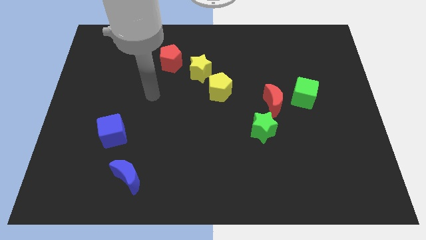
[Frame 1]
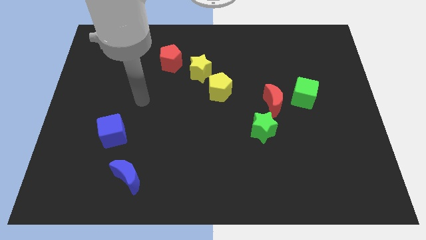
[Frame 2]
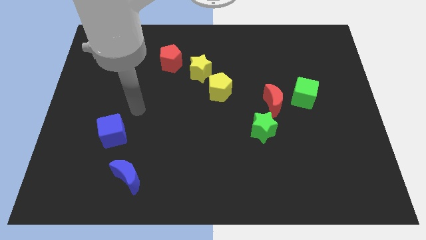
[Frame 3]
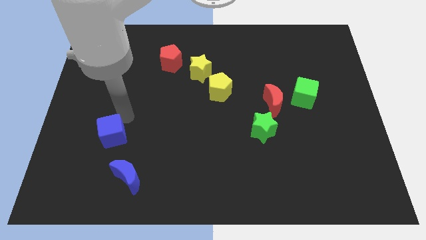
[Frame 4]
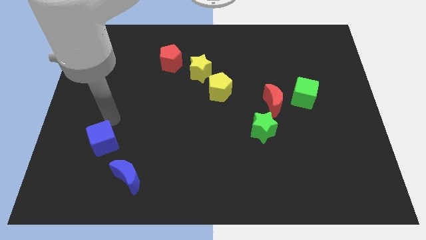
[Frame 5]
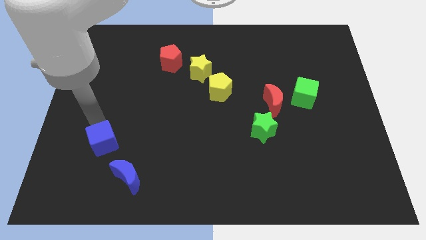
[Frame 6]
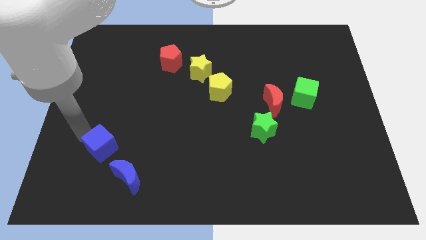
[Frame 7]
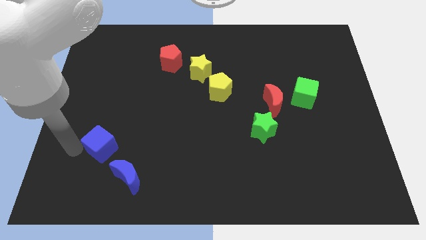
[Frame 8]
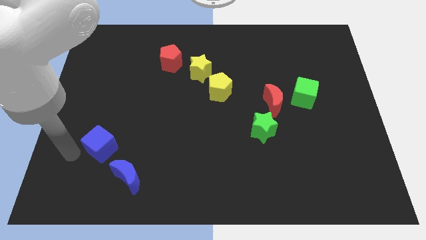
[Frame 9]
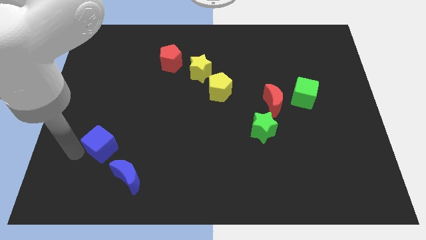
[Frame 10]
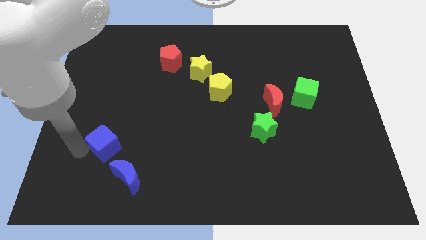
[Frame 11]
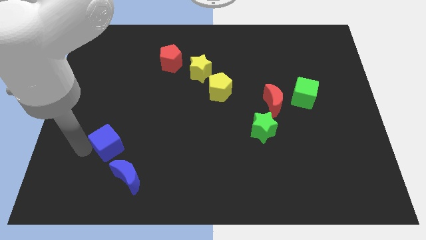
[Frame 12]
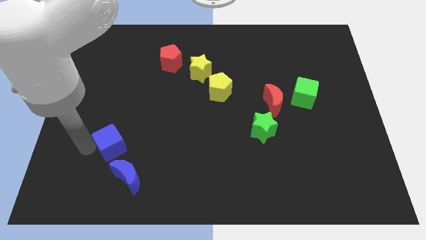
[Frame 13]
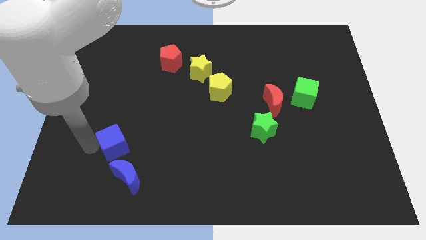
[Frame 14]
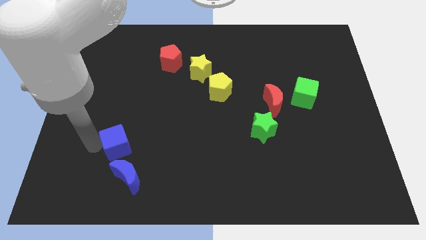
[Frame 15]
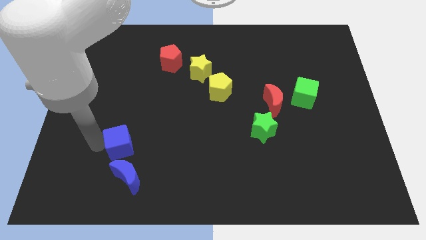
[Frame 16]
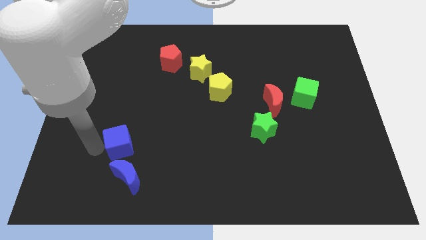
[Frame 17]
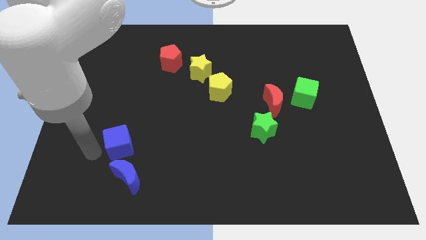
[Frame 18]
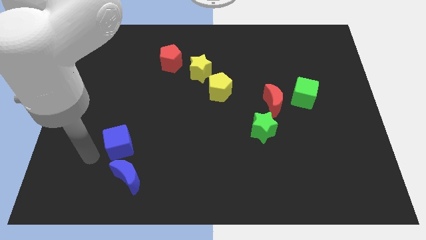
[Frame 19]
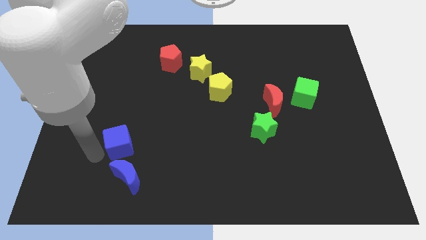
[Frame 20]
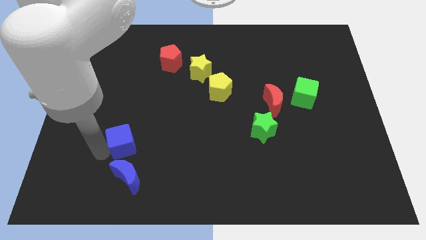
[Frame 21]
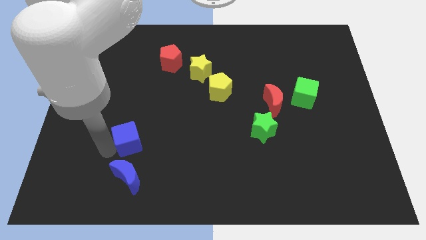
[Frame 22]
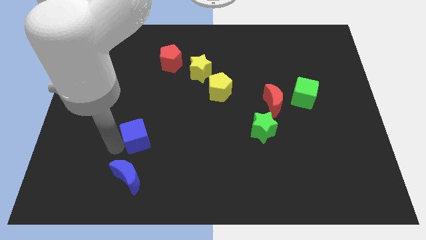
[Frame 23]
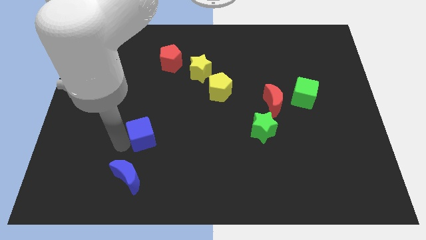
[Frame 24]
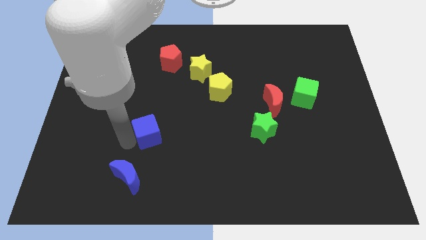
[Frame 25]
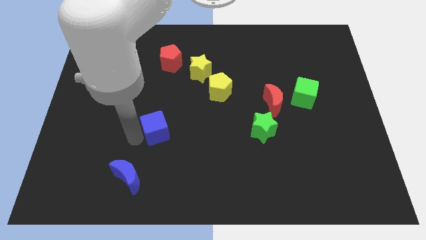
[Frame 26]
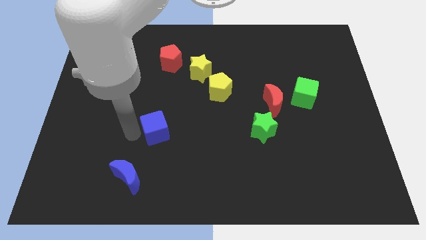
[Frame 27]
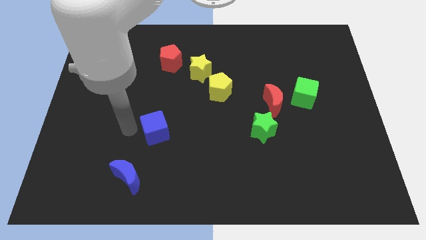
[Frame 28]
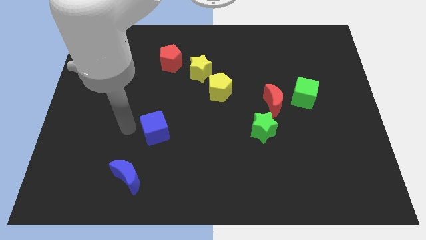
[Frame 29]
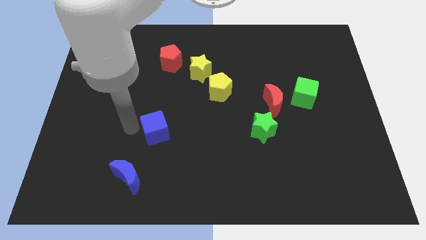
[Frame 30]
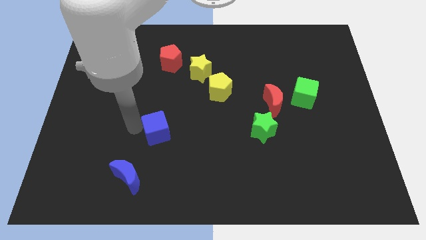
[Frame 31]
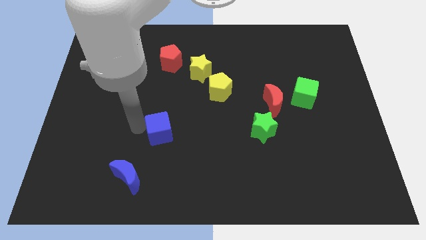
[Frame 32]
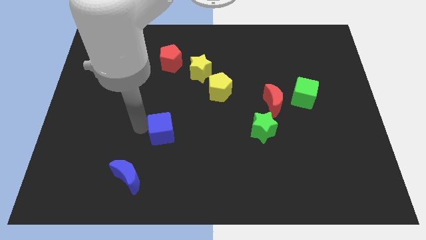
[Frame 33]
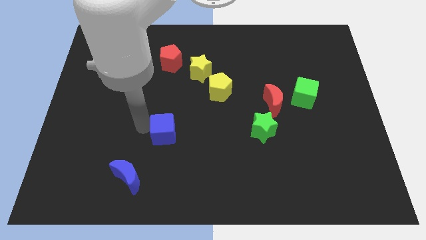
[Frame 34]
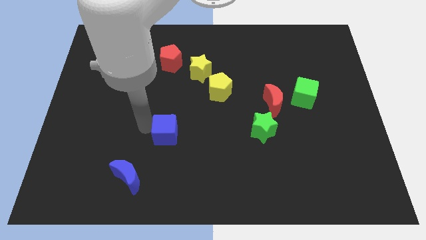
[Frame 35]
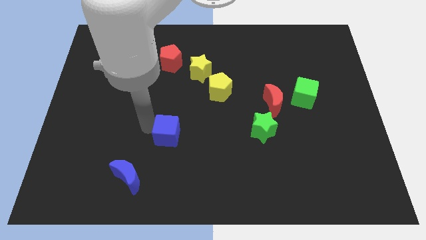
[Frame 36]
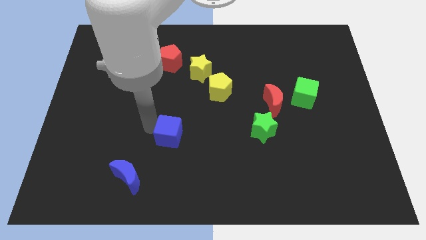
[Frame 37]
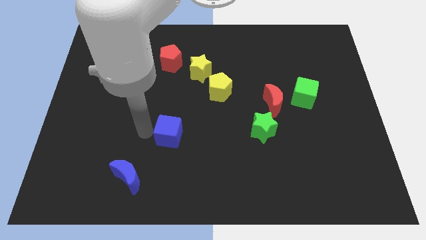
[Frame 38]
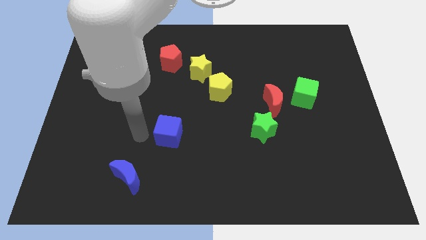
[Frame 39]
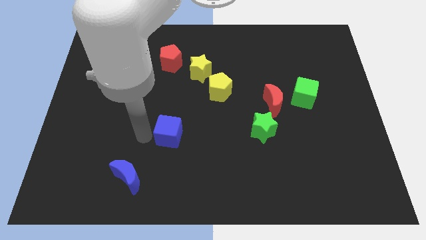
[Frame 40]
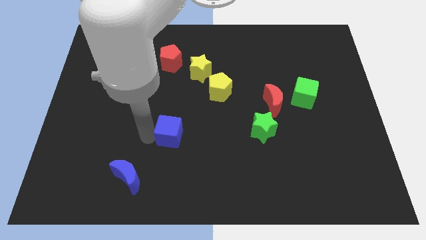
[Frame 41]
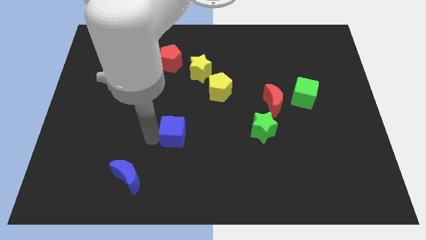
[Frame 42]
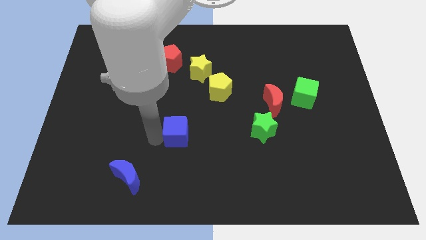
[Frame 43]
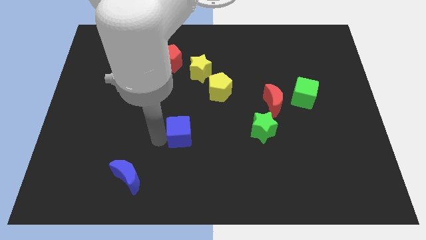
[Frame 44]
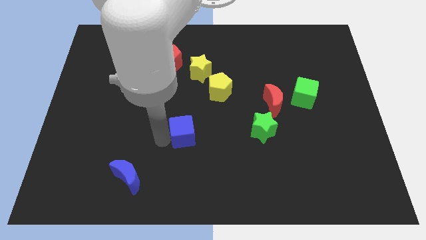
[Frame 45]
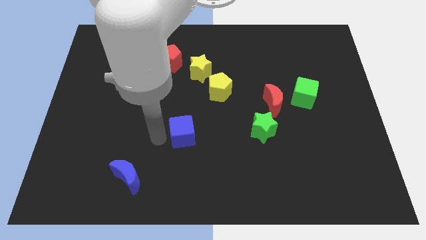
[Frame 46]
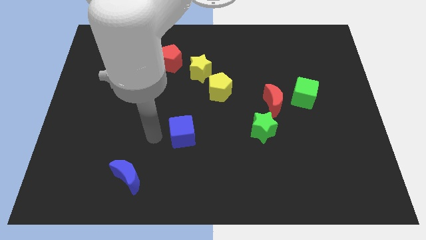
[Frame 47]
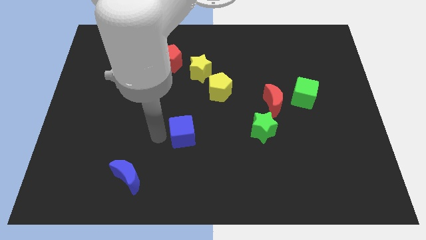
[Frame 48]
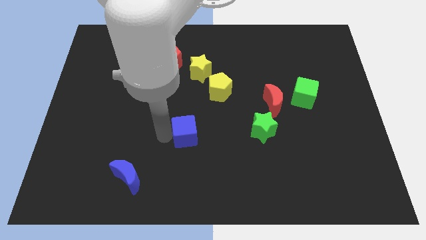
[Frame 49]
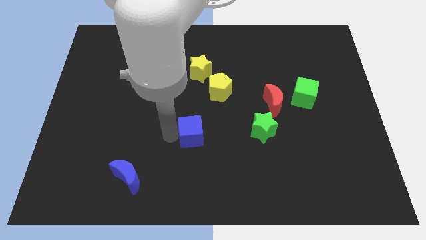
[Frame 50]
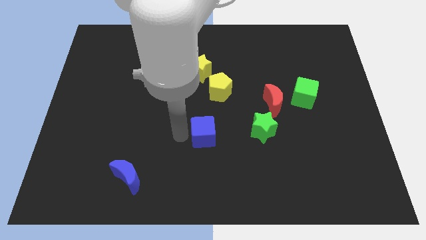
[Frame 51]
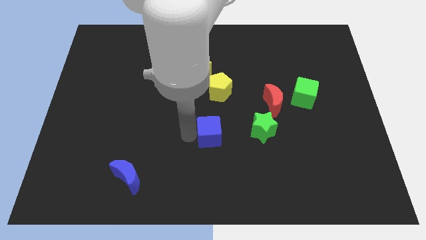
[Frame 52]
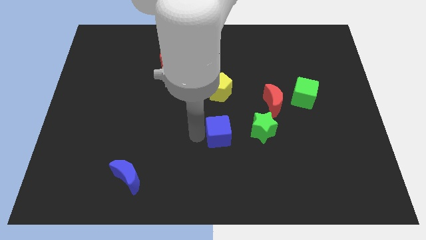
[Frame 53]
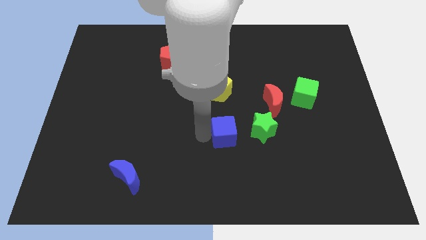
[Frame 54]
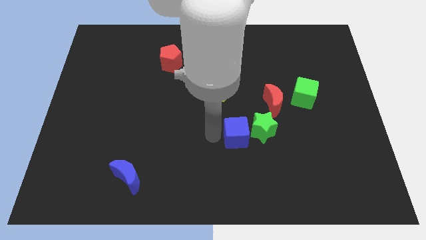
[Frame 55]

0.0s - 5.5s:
move the blue cube close to the green star

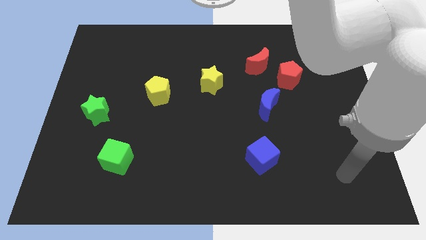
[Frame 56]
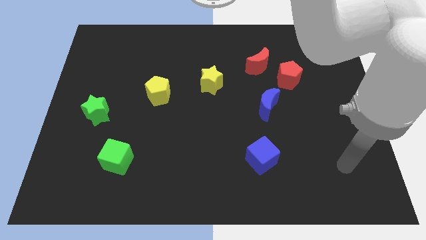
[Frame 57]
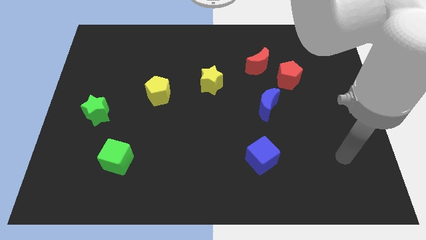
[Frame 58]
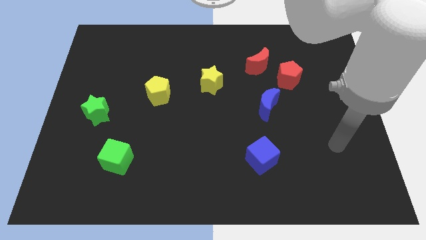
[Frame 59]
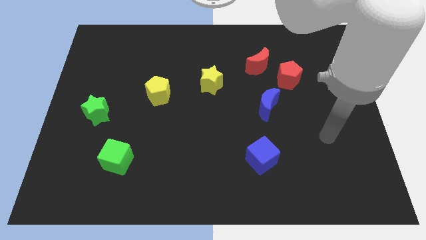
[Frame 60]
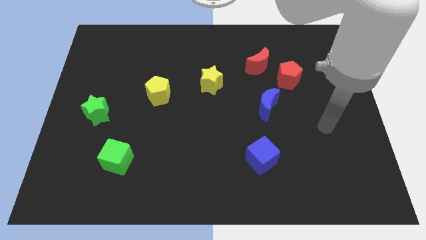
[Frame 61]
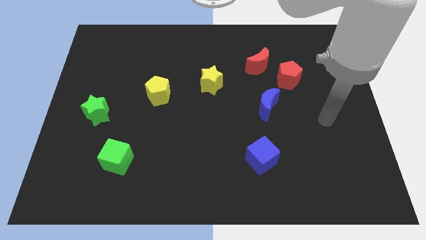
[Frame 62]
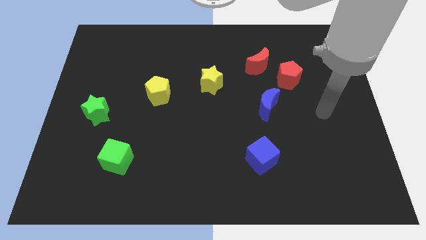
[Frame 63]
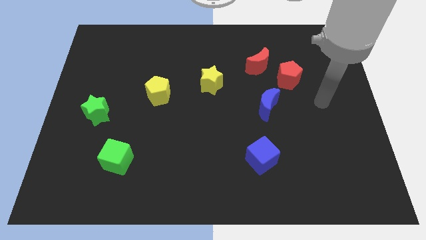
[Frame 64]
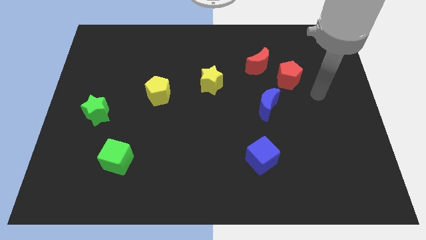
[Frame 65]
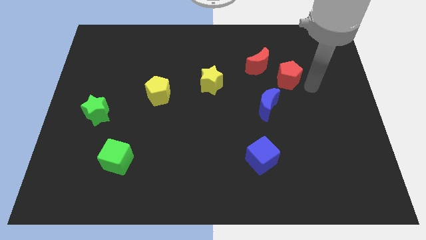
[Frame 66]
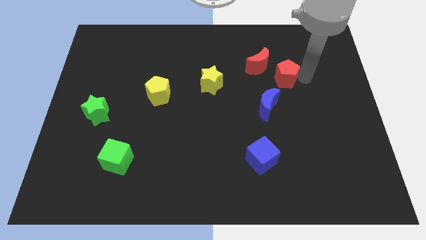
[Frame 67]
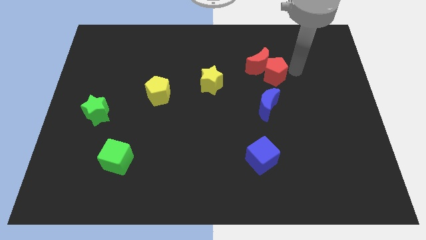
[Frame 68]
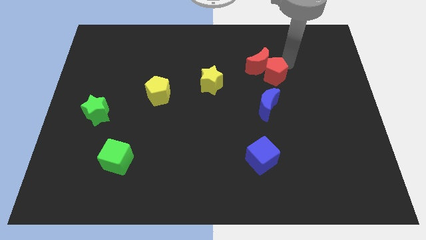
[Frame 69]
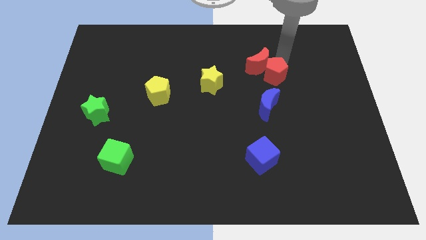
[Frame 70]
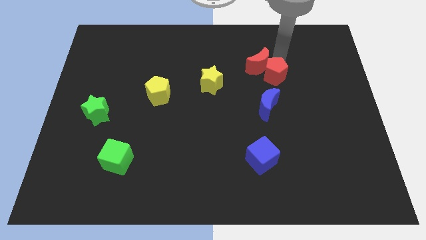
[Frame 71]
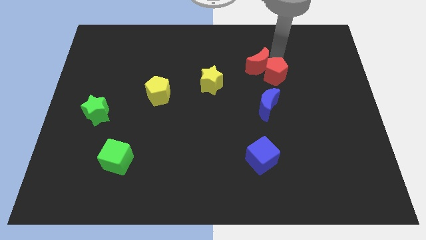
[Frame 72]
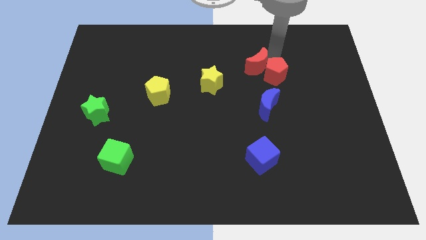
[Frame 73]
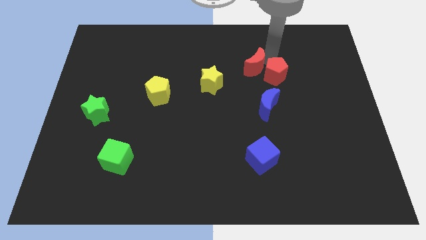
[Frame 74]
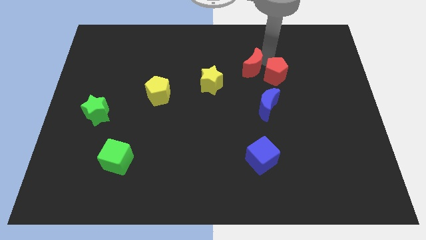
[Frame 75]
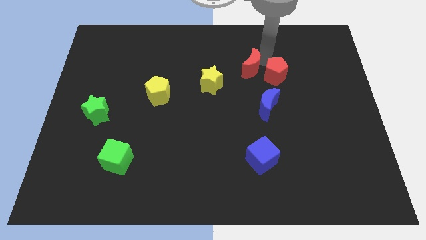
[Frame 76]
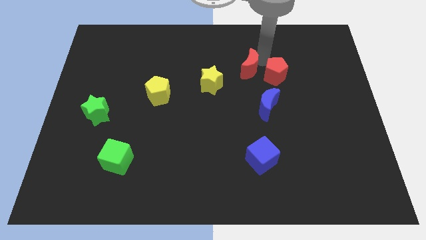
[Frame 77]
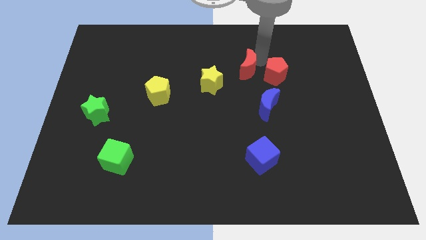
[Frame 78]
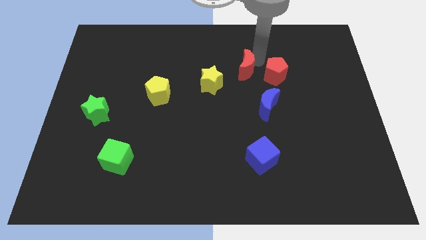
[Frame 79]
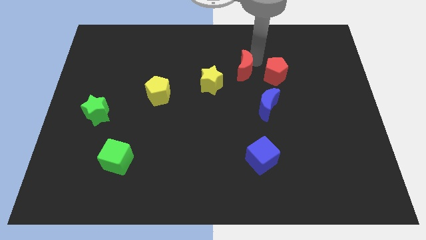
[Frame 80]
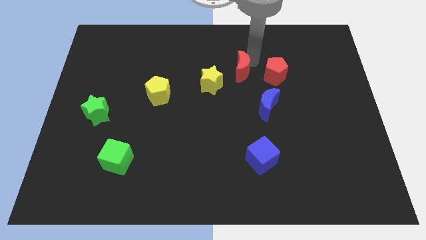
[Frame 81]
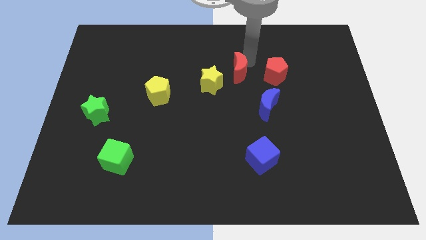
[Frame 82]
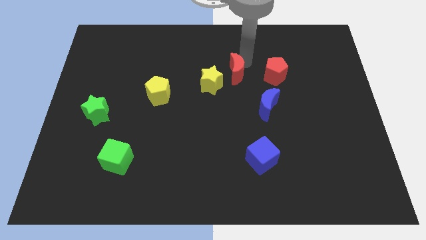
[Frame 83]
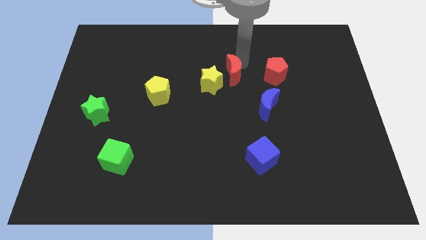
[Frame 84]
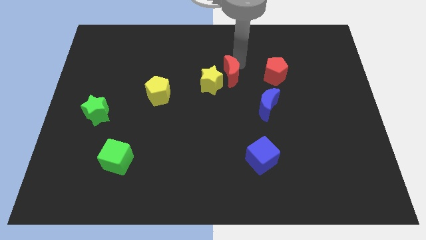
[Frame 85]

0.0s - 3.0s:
put the red moon towards the yellow star
